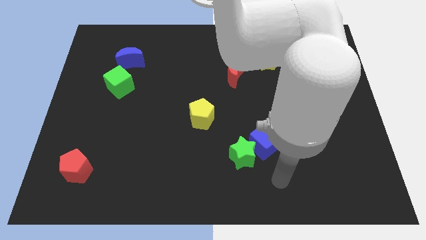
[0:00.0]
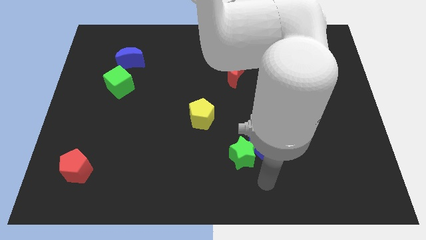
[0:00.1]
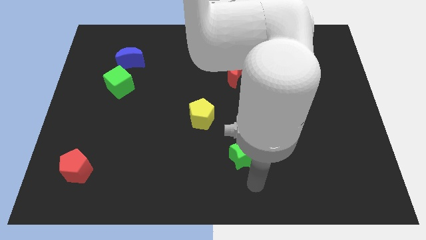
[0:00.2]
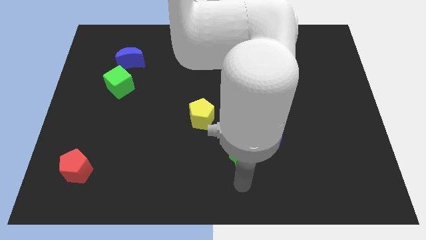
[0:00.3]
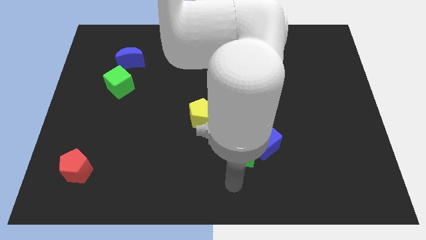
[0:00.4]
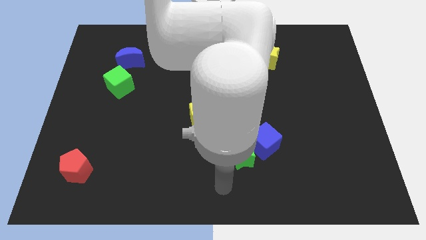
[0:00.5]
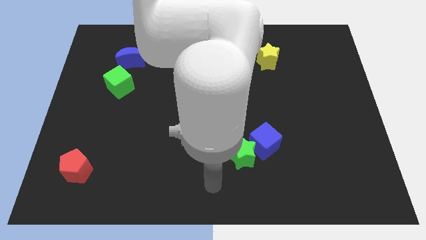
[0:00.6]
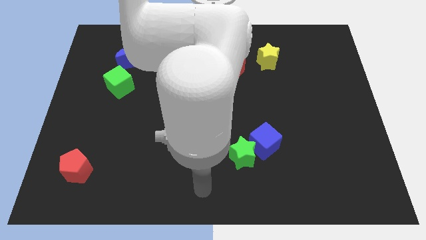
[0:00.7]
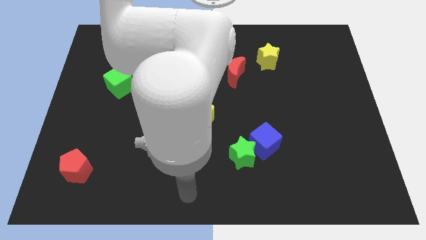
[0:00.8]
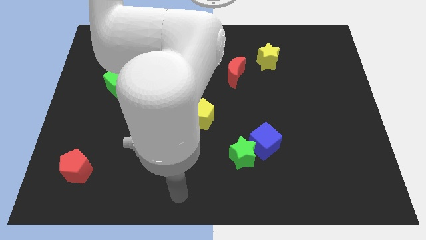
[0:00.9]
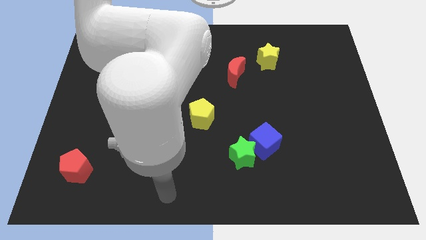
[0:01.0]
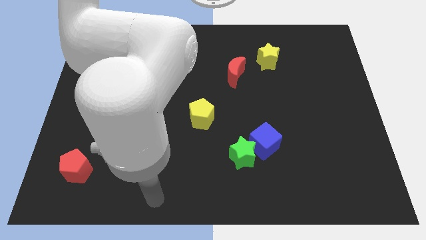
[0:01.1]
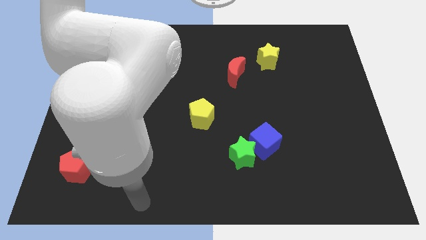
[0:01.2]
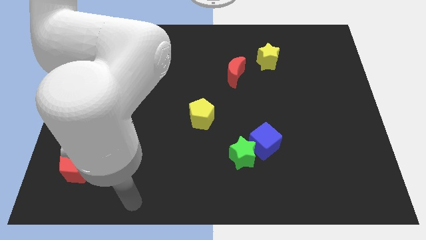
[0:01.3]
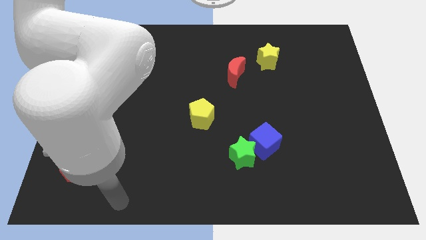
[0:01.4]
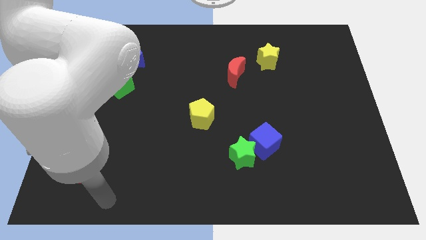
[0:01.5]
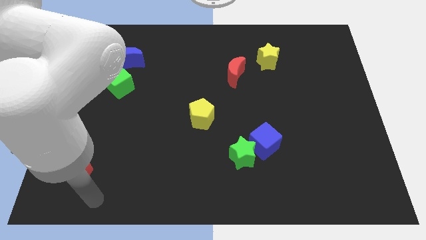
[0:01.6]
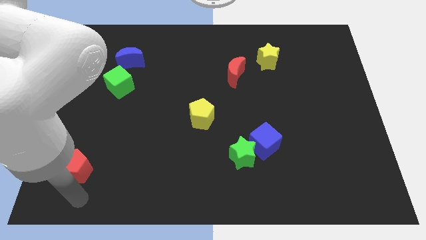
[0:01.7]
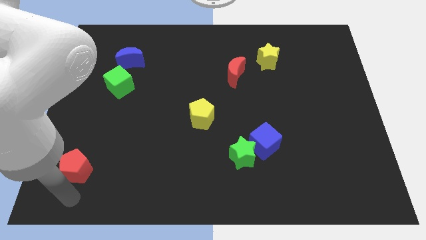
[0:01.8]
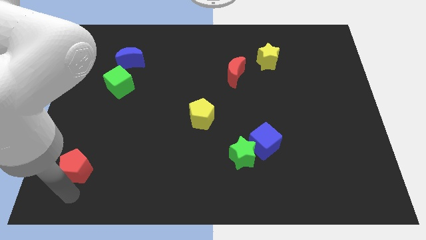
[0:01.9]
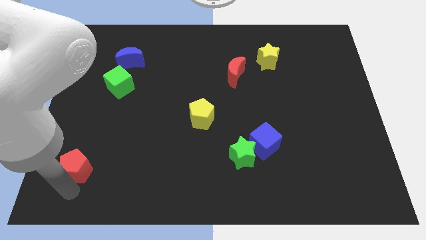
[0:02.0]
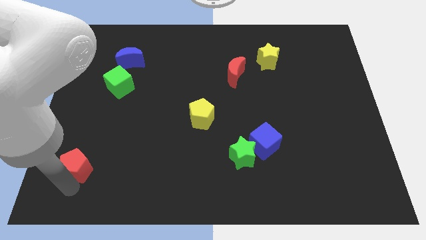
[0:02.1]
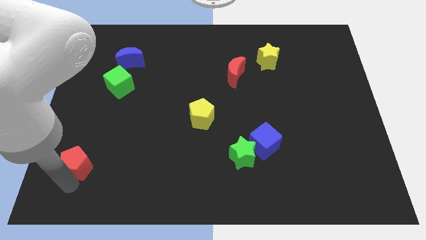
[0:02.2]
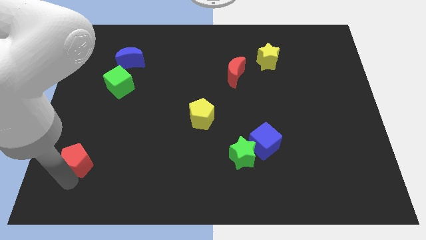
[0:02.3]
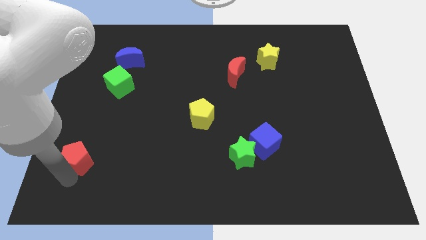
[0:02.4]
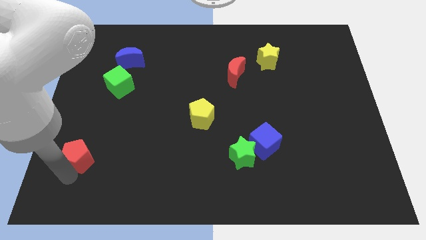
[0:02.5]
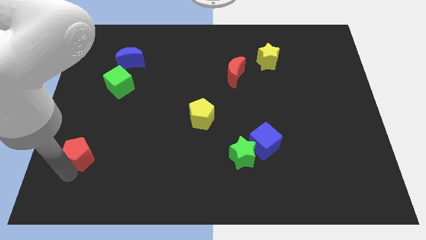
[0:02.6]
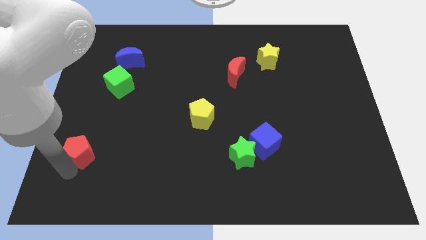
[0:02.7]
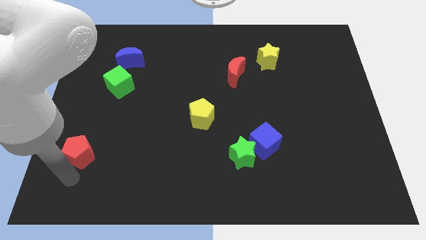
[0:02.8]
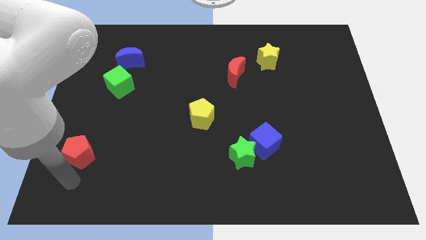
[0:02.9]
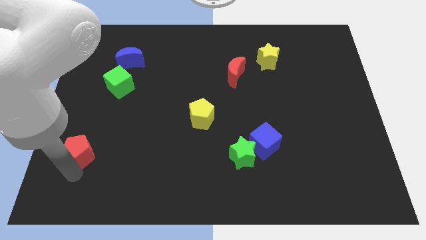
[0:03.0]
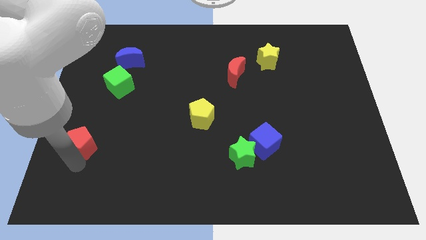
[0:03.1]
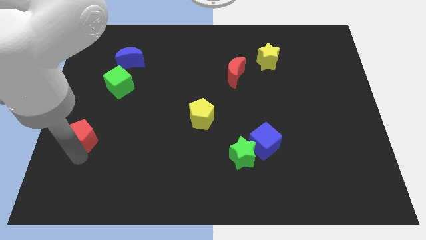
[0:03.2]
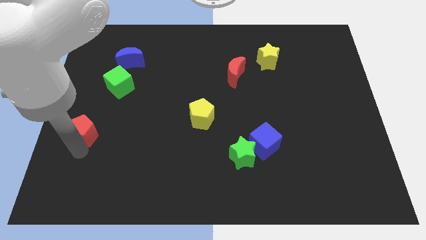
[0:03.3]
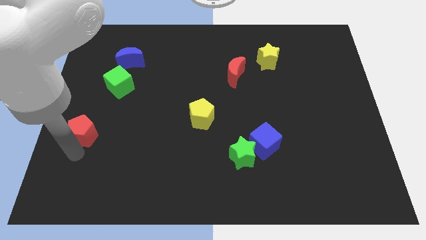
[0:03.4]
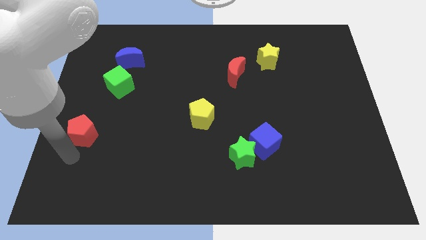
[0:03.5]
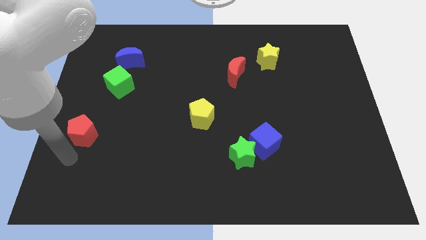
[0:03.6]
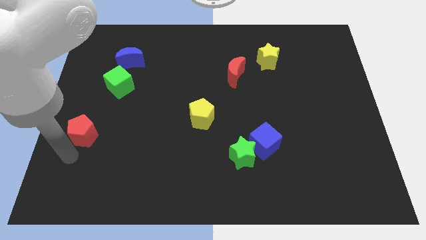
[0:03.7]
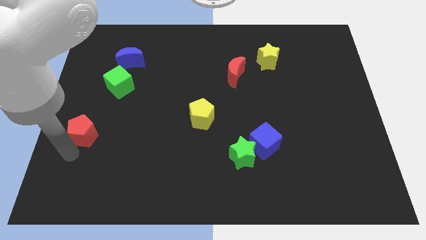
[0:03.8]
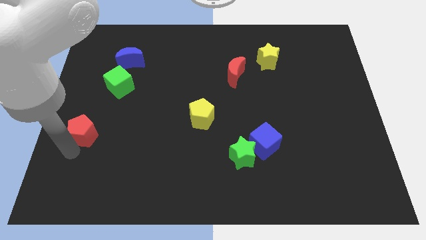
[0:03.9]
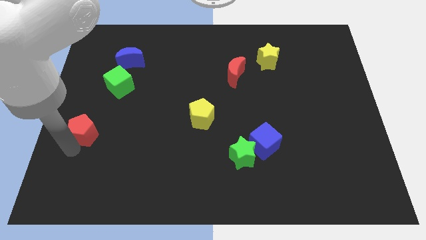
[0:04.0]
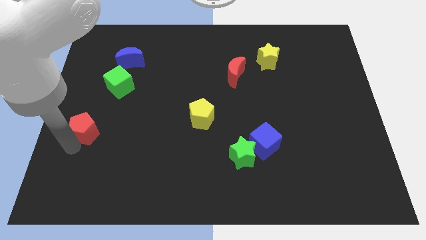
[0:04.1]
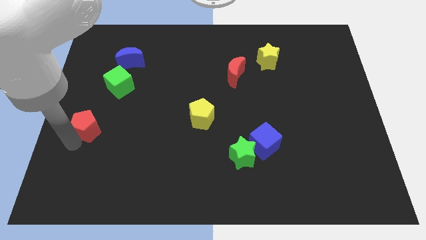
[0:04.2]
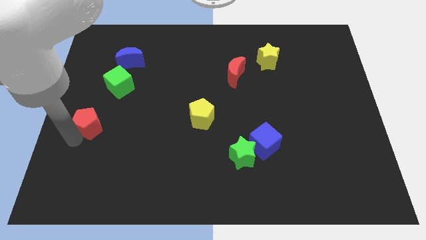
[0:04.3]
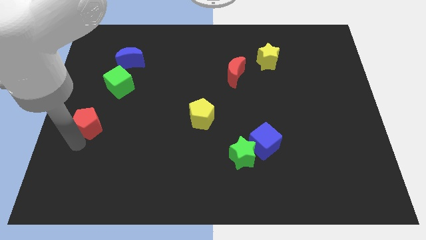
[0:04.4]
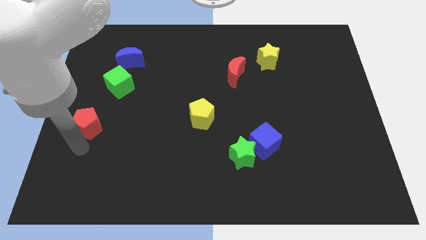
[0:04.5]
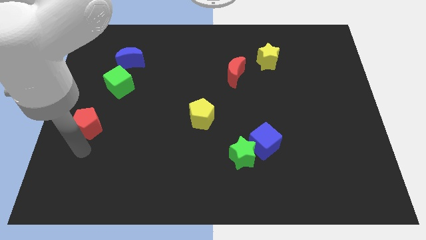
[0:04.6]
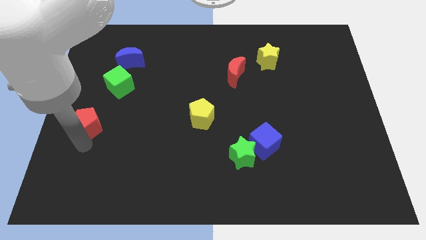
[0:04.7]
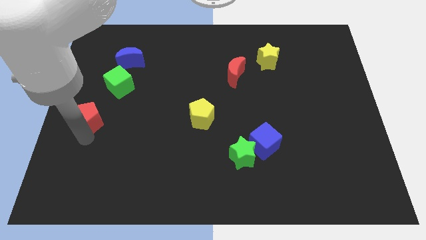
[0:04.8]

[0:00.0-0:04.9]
push the red pentagon to the bottom left side of the green cube

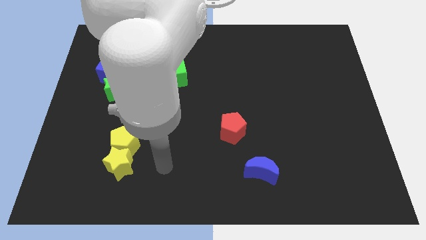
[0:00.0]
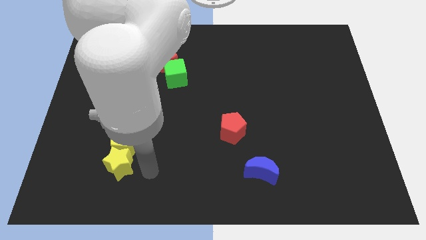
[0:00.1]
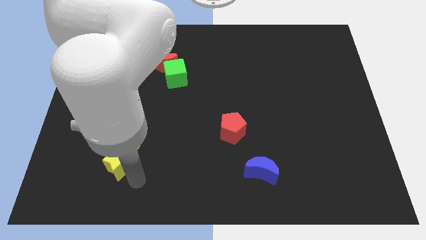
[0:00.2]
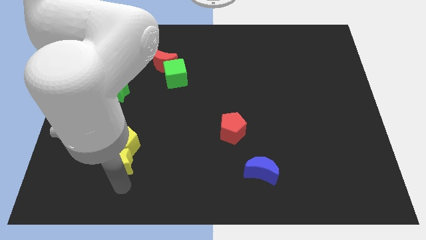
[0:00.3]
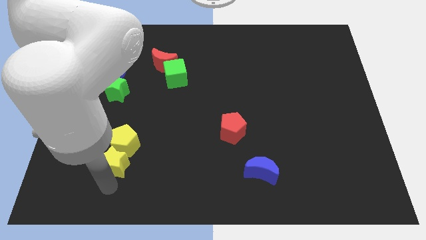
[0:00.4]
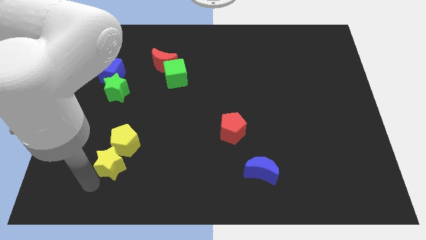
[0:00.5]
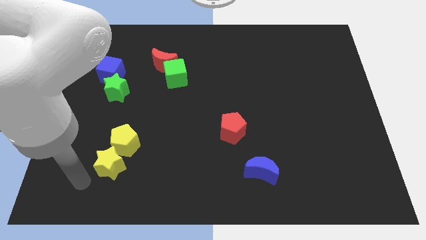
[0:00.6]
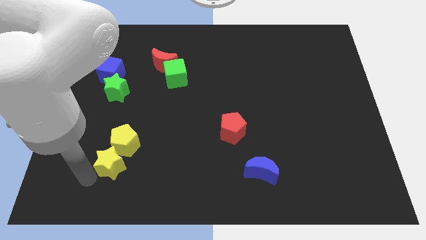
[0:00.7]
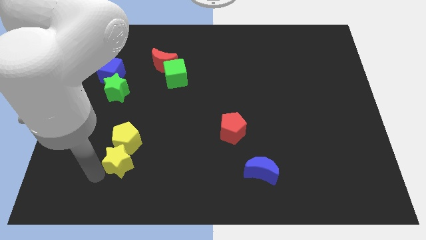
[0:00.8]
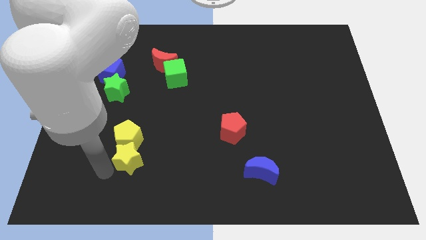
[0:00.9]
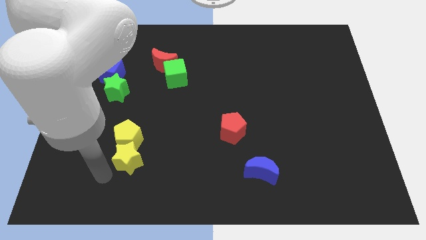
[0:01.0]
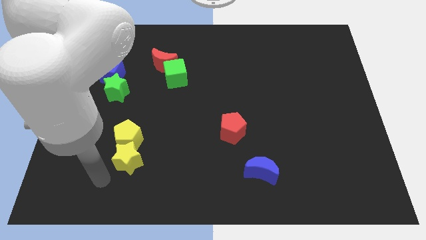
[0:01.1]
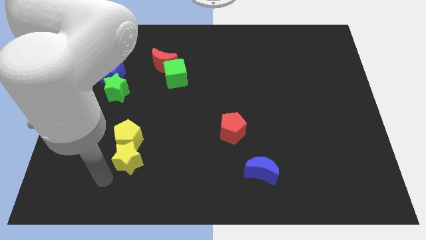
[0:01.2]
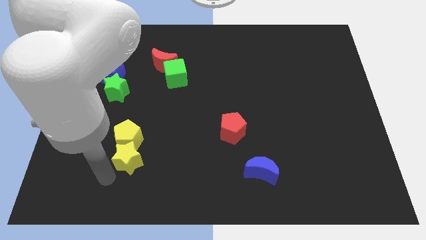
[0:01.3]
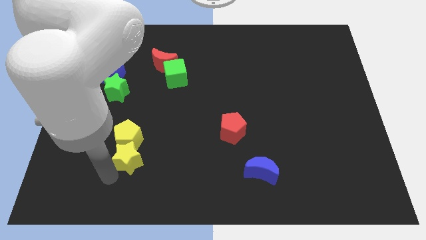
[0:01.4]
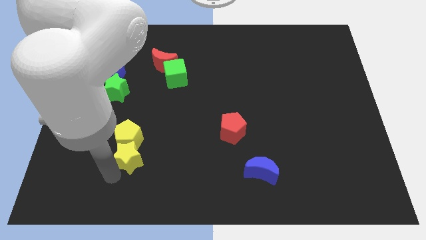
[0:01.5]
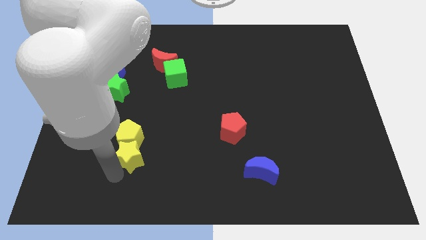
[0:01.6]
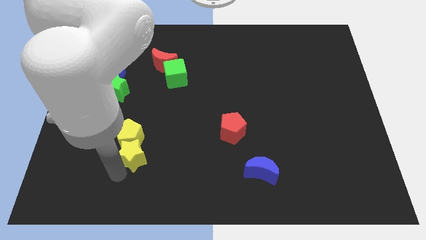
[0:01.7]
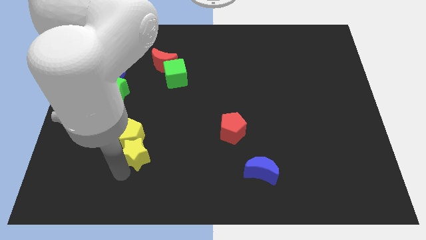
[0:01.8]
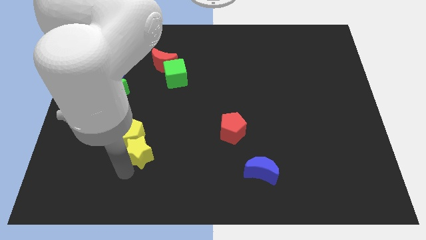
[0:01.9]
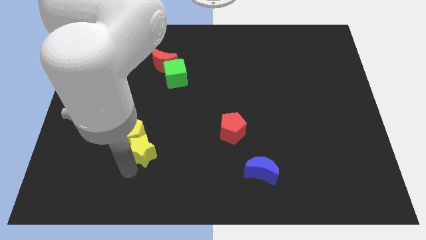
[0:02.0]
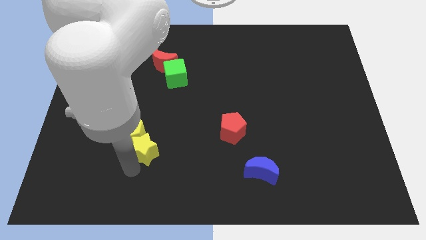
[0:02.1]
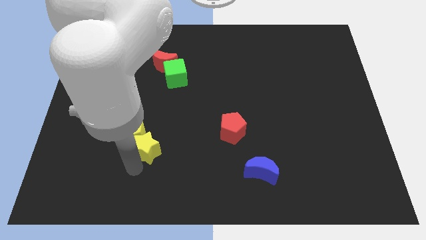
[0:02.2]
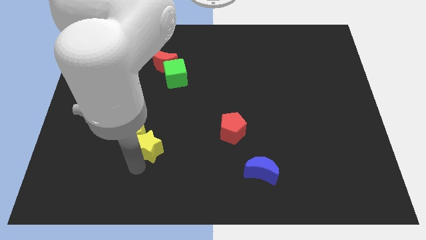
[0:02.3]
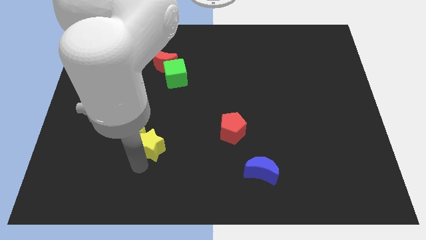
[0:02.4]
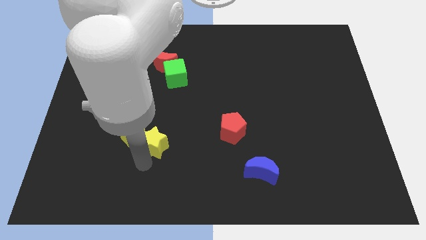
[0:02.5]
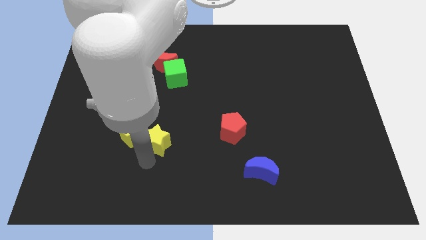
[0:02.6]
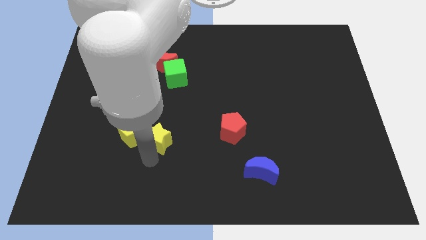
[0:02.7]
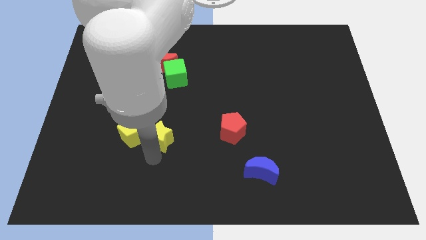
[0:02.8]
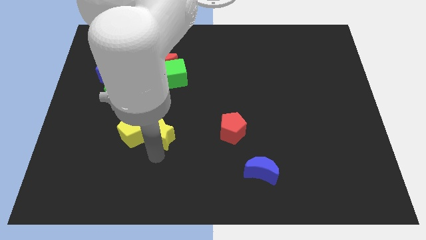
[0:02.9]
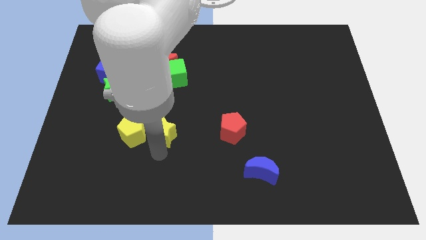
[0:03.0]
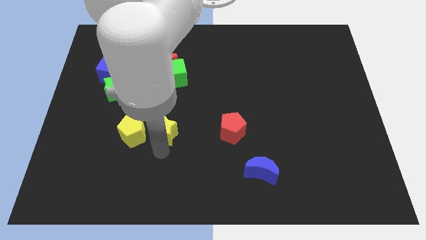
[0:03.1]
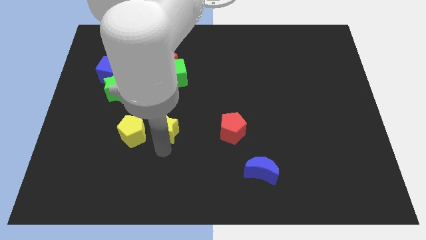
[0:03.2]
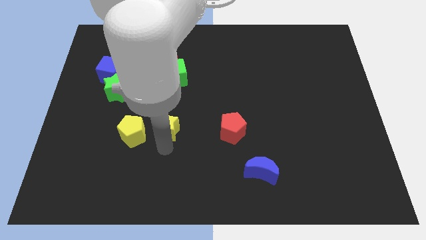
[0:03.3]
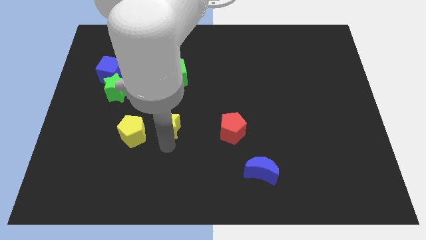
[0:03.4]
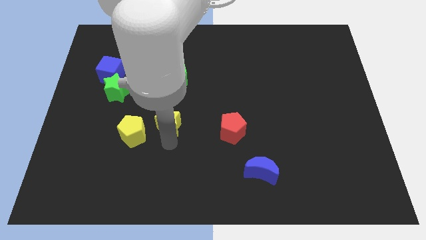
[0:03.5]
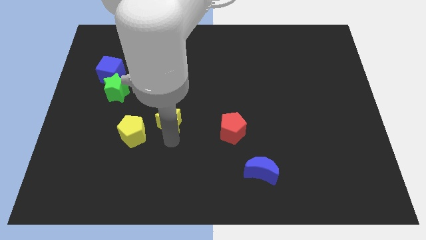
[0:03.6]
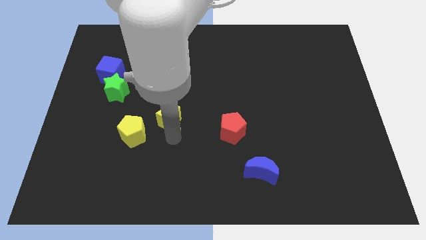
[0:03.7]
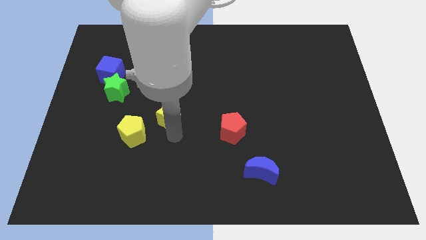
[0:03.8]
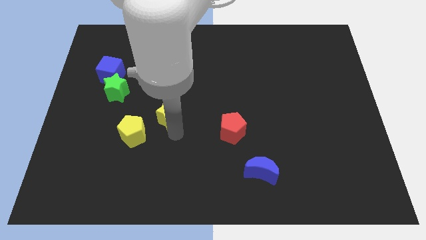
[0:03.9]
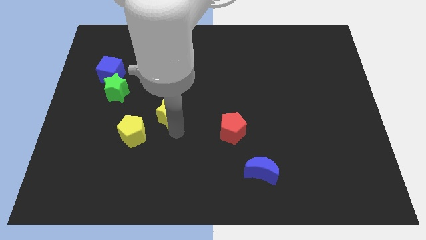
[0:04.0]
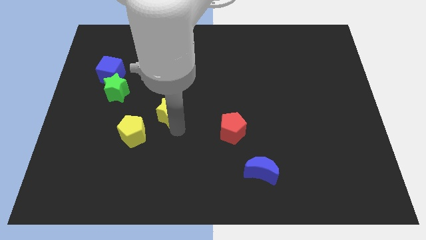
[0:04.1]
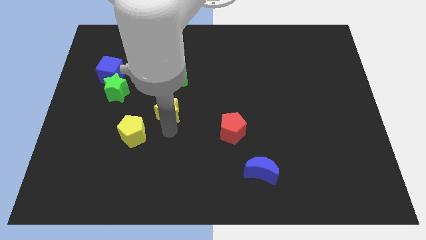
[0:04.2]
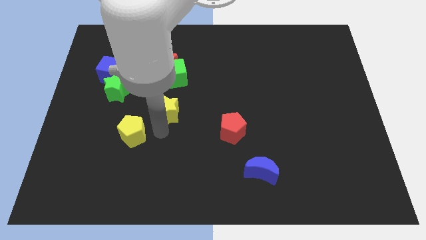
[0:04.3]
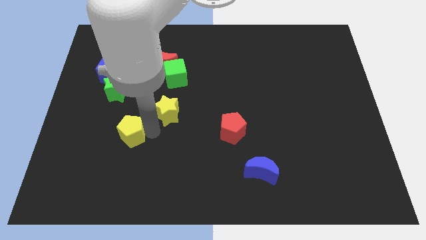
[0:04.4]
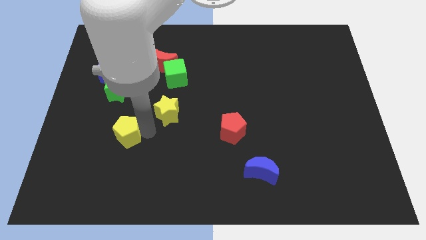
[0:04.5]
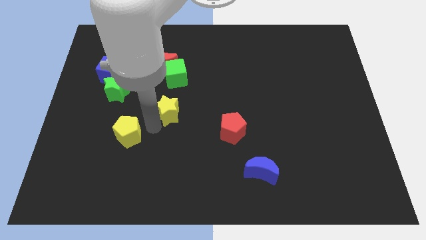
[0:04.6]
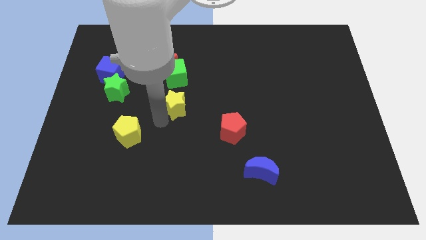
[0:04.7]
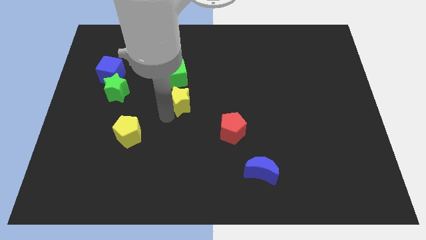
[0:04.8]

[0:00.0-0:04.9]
put the yellow star diagonally down and to the right of the green cube
